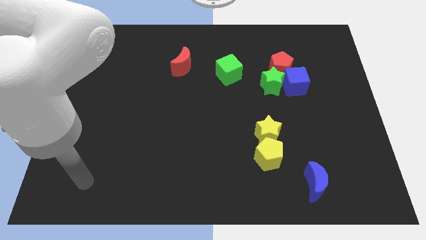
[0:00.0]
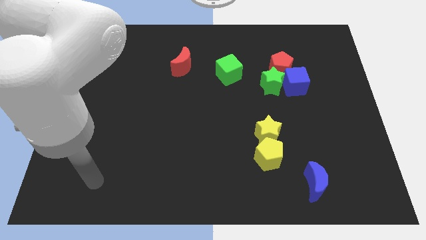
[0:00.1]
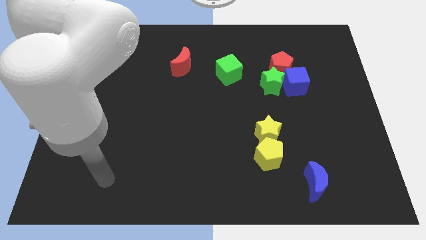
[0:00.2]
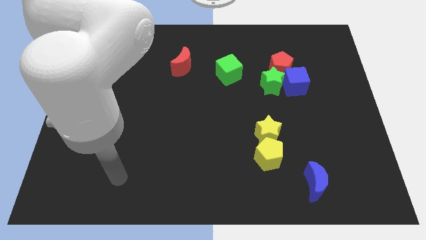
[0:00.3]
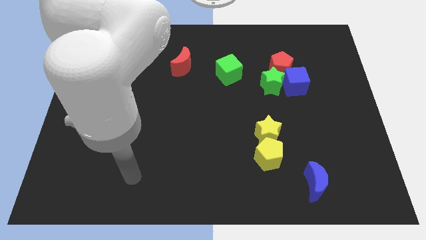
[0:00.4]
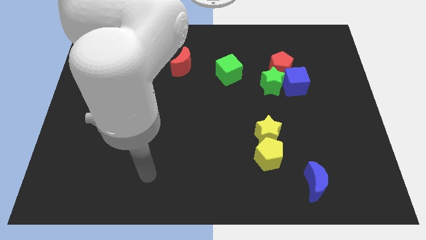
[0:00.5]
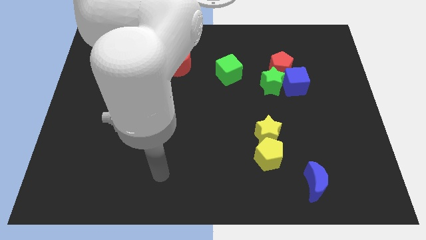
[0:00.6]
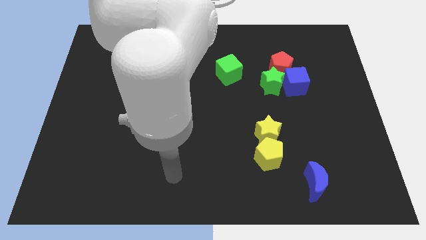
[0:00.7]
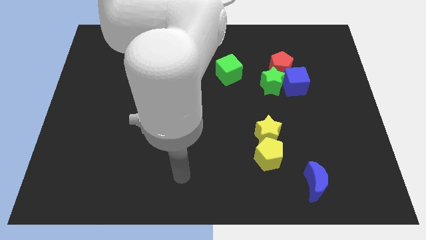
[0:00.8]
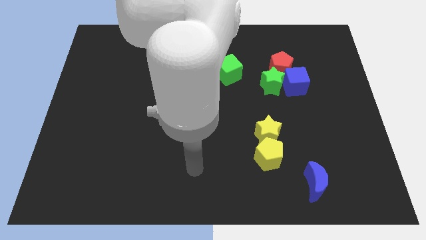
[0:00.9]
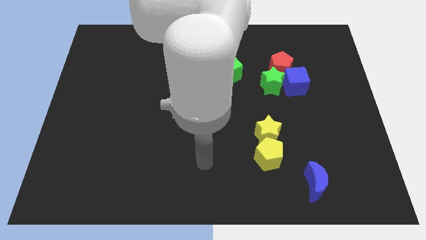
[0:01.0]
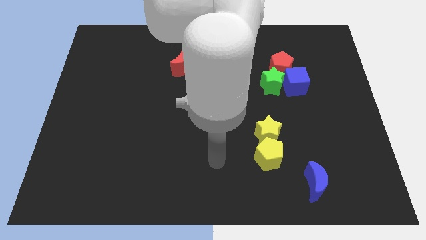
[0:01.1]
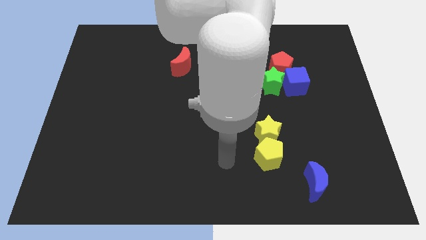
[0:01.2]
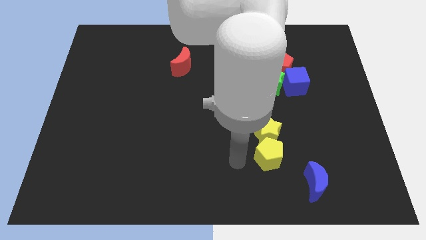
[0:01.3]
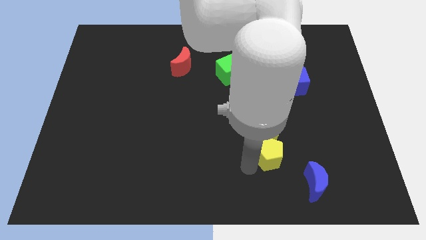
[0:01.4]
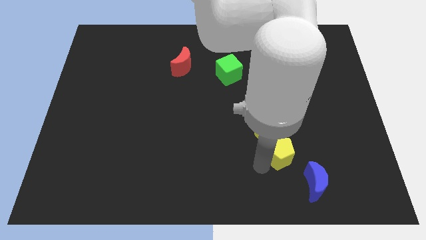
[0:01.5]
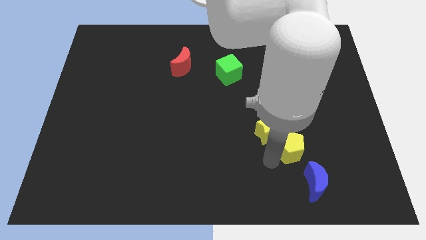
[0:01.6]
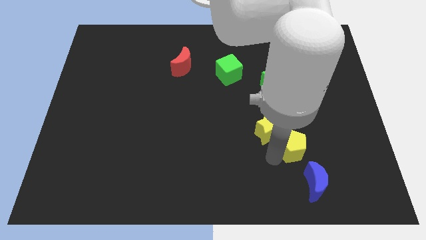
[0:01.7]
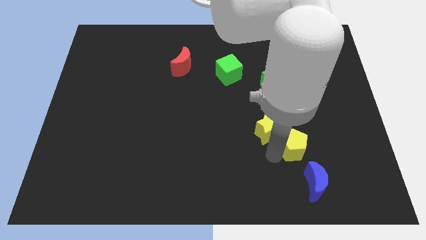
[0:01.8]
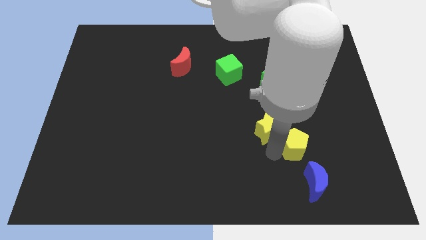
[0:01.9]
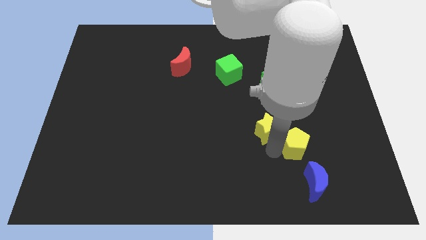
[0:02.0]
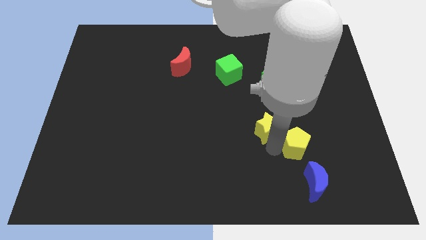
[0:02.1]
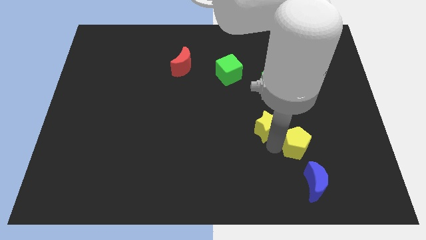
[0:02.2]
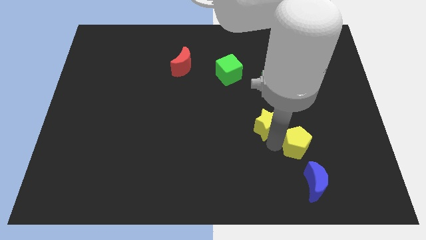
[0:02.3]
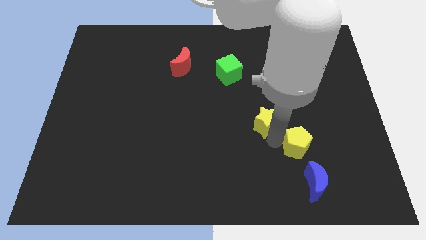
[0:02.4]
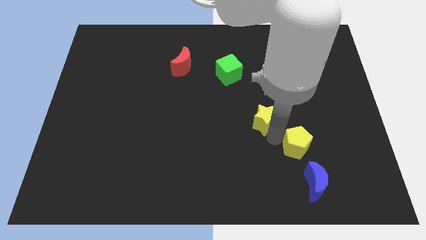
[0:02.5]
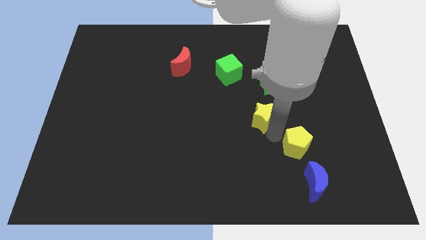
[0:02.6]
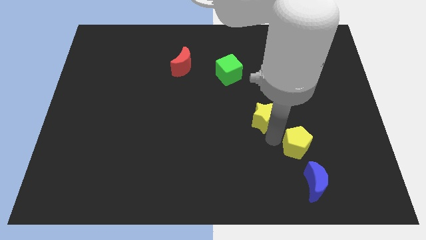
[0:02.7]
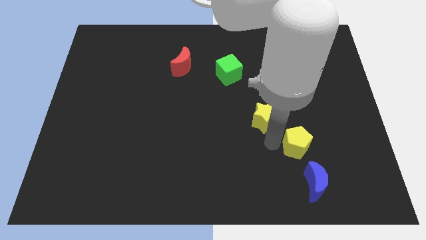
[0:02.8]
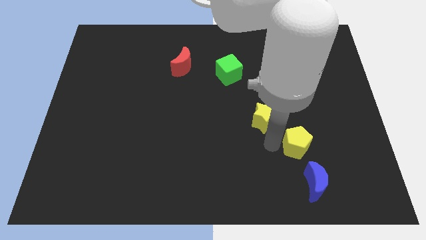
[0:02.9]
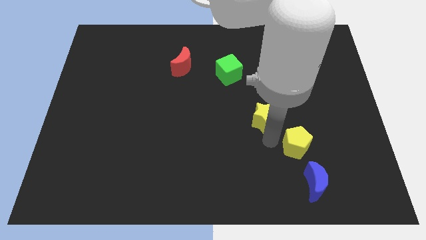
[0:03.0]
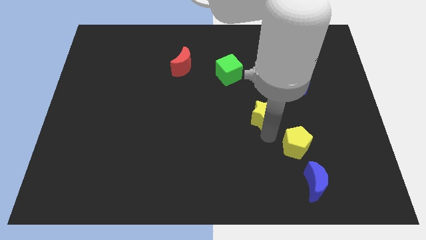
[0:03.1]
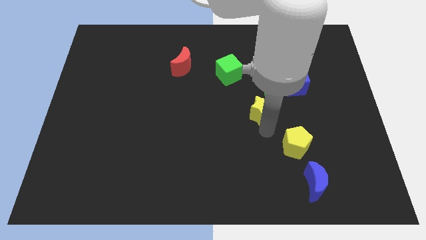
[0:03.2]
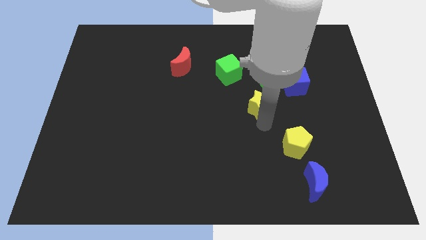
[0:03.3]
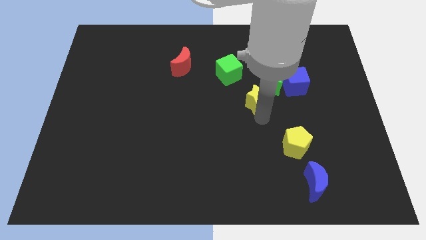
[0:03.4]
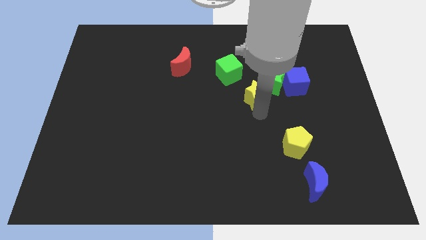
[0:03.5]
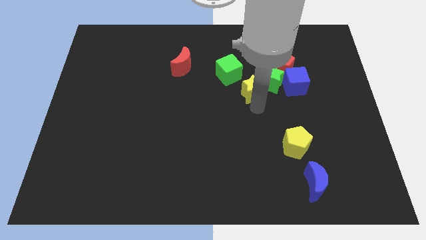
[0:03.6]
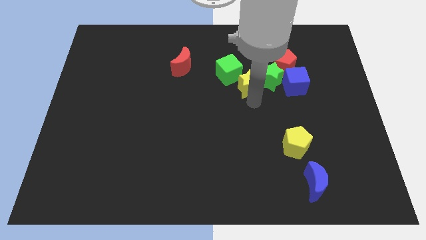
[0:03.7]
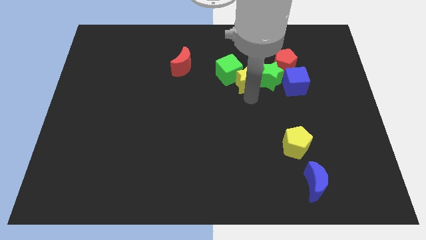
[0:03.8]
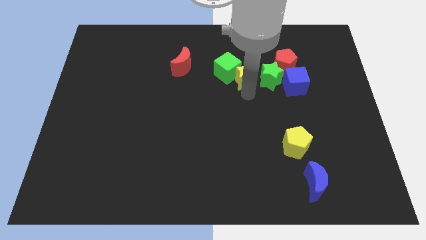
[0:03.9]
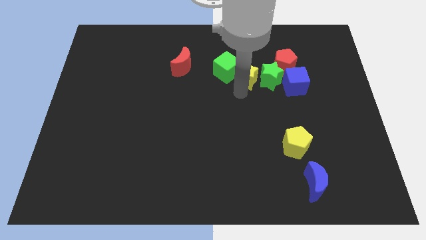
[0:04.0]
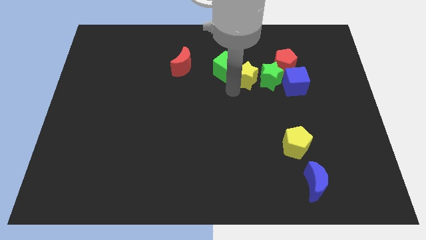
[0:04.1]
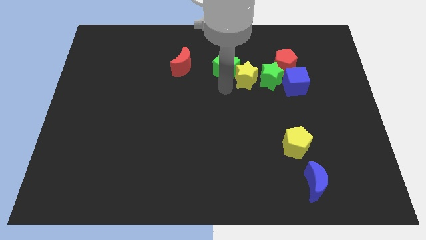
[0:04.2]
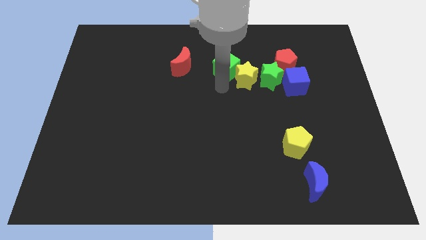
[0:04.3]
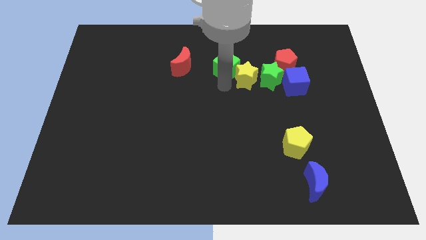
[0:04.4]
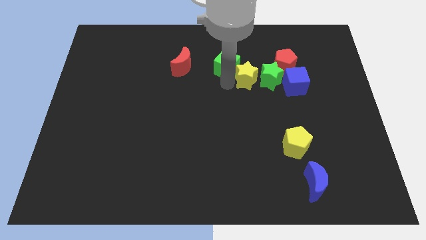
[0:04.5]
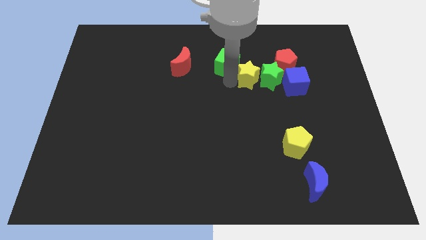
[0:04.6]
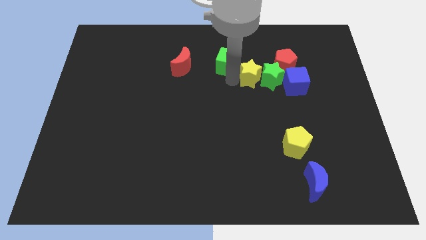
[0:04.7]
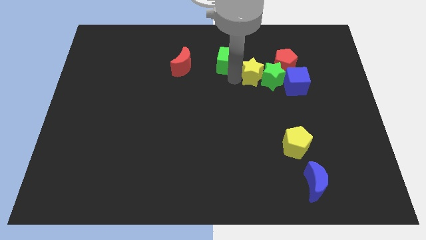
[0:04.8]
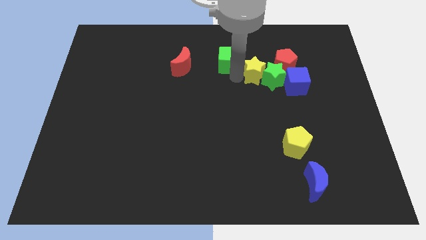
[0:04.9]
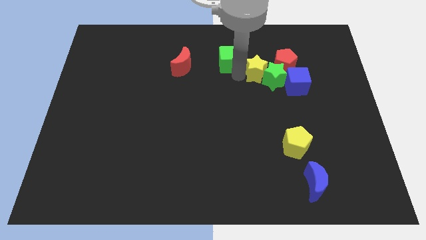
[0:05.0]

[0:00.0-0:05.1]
put the yellow star to the top left side of the blue cube

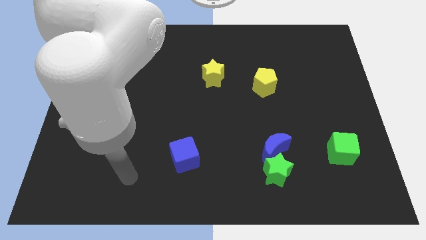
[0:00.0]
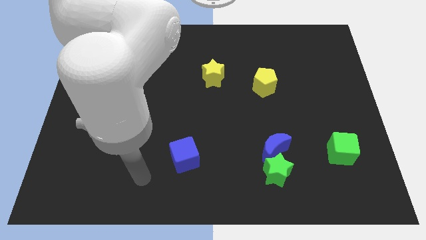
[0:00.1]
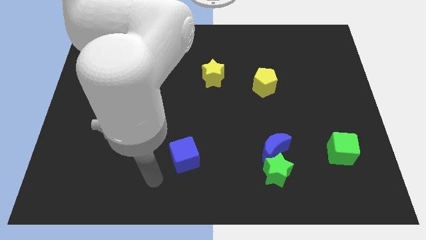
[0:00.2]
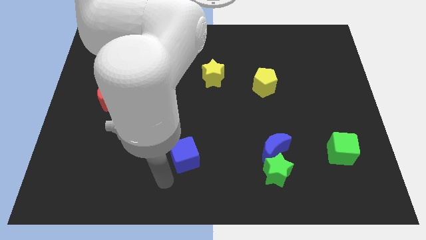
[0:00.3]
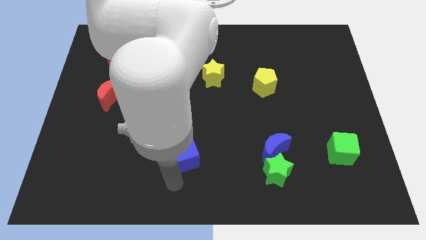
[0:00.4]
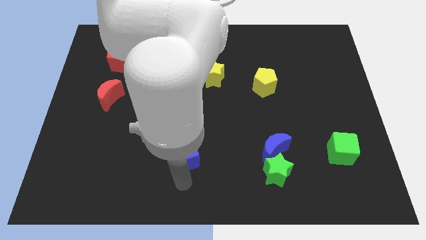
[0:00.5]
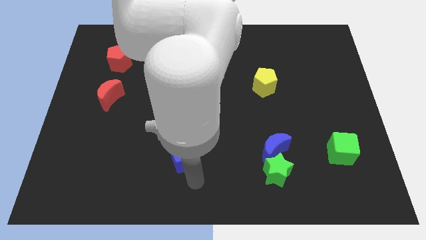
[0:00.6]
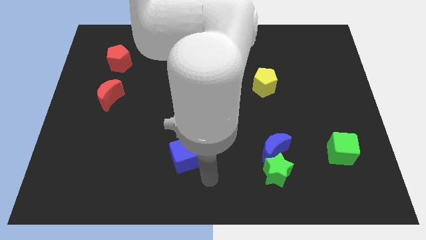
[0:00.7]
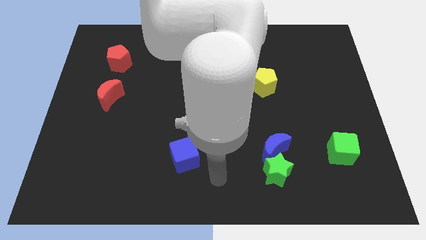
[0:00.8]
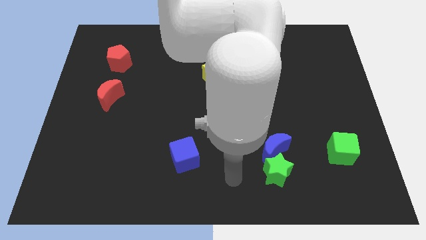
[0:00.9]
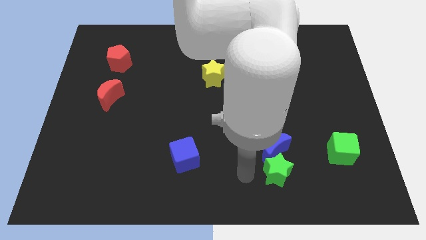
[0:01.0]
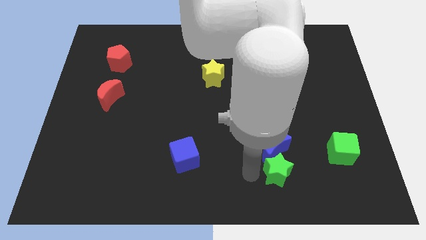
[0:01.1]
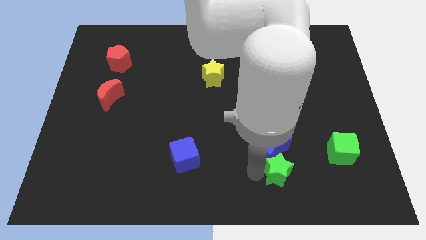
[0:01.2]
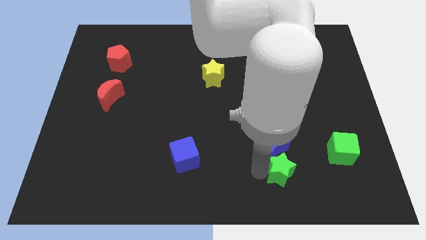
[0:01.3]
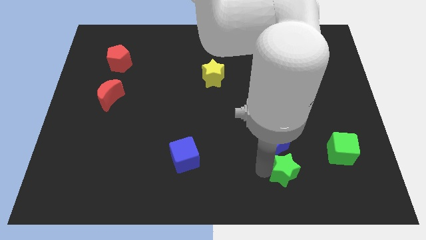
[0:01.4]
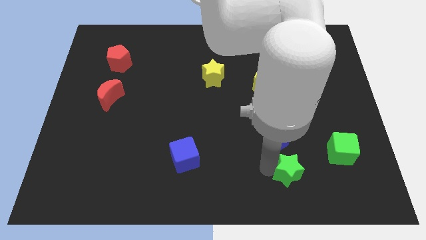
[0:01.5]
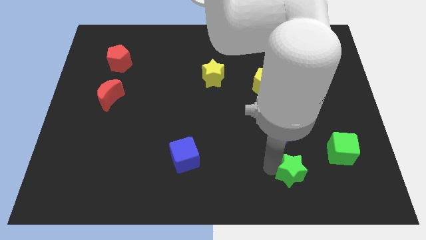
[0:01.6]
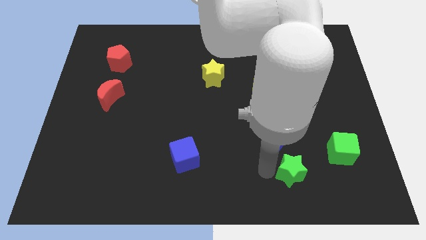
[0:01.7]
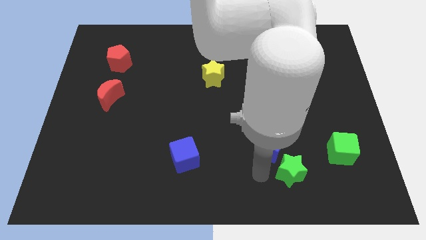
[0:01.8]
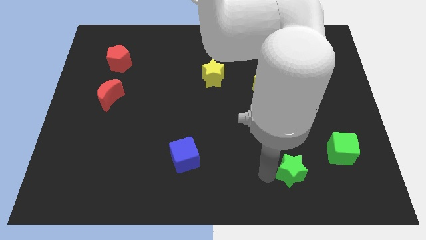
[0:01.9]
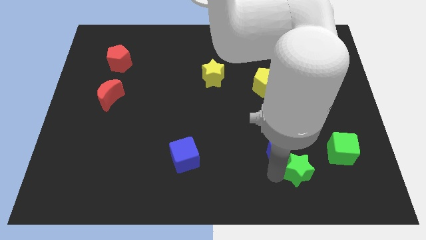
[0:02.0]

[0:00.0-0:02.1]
move the green star diagonally down and to the left of the green cube
